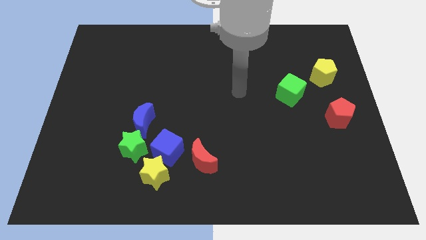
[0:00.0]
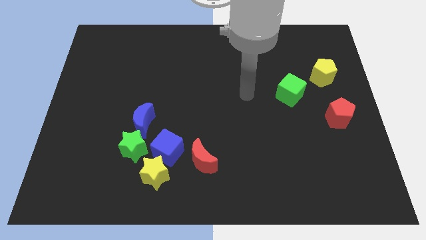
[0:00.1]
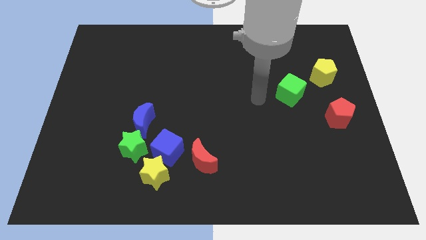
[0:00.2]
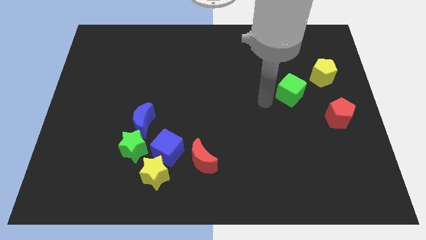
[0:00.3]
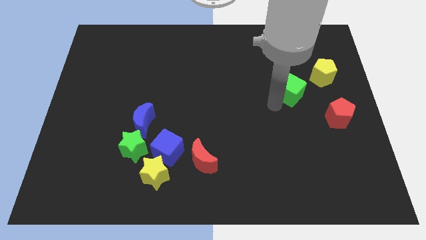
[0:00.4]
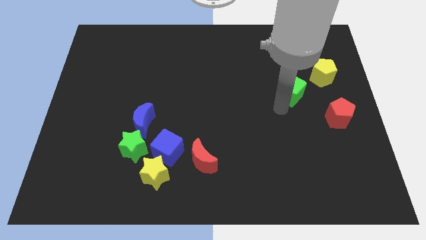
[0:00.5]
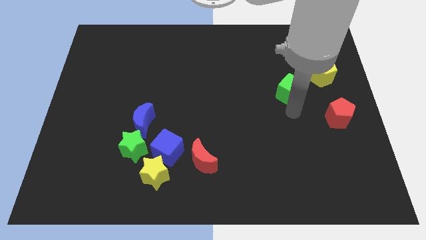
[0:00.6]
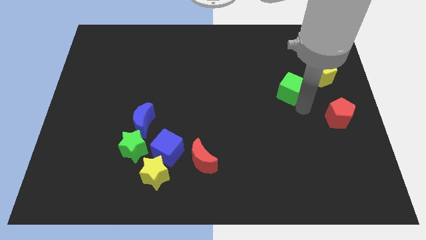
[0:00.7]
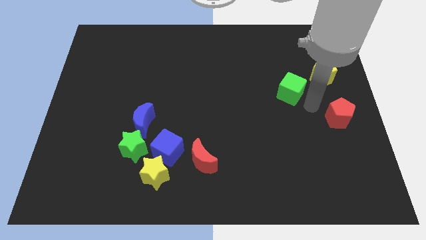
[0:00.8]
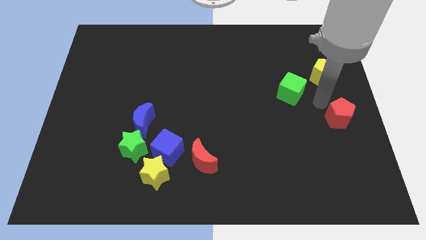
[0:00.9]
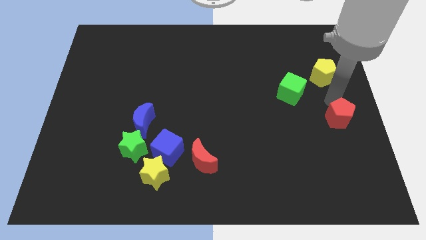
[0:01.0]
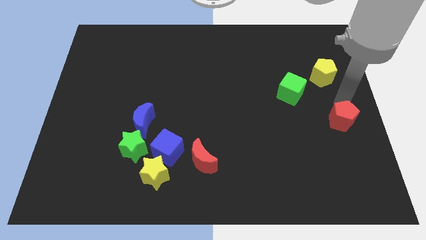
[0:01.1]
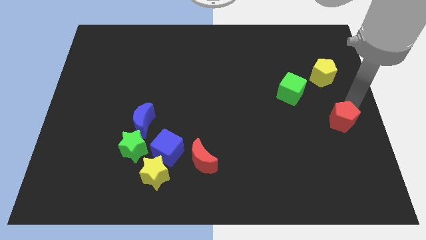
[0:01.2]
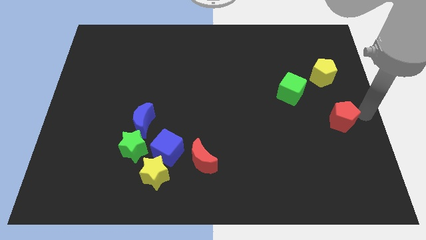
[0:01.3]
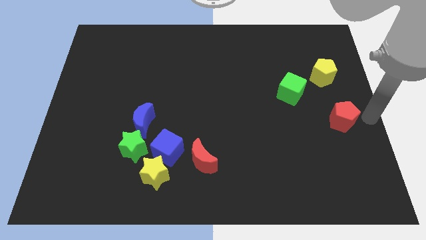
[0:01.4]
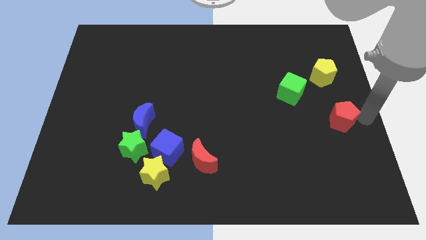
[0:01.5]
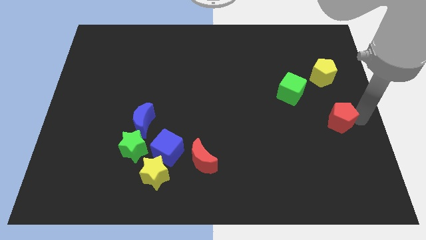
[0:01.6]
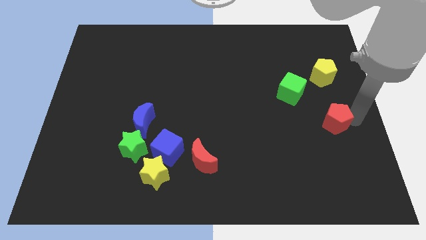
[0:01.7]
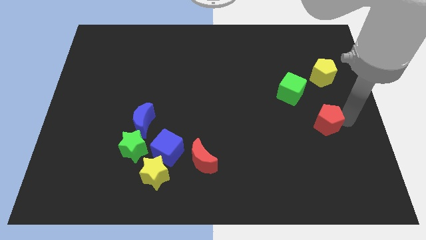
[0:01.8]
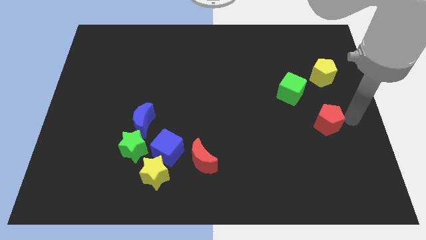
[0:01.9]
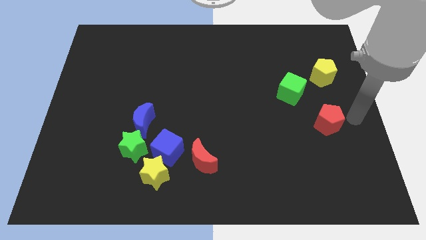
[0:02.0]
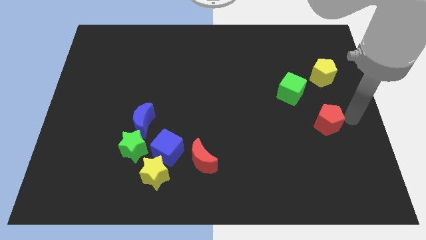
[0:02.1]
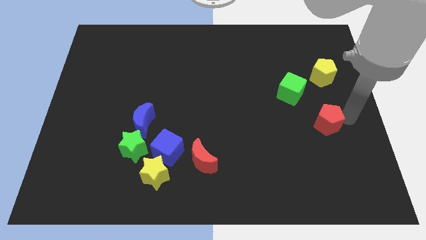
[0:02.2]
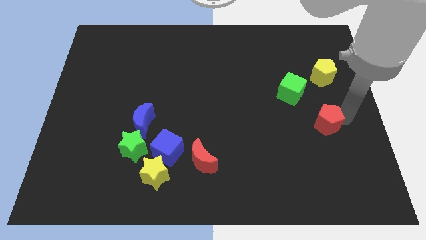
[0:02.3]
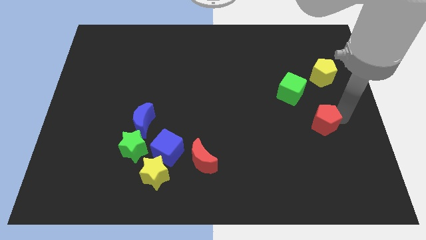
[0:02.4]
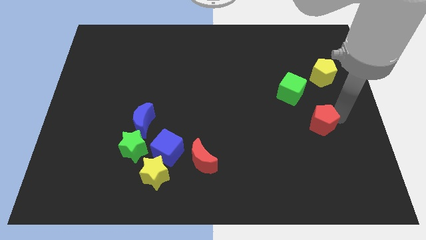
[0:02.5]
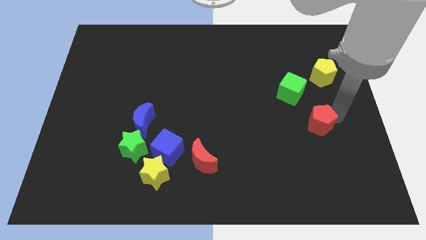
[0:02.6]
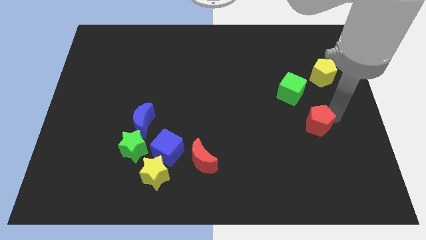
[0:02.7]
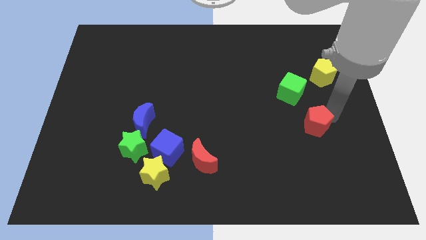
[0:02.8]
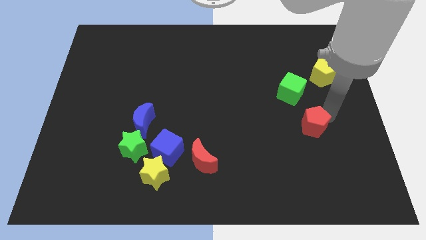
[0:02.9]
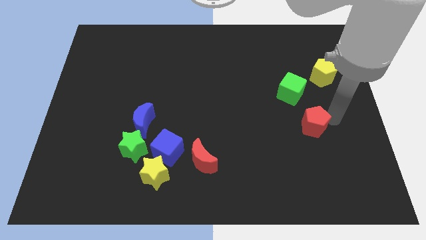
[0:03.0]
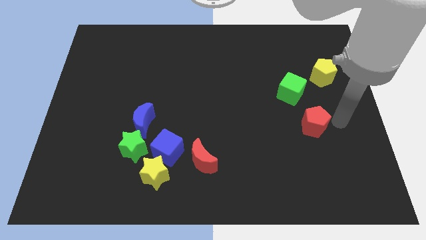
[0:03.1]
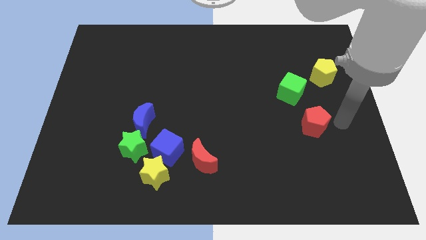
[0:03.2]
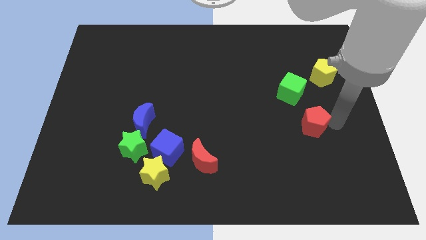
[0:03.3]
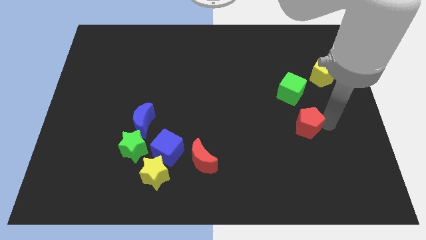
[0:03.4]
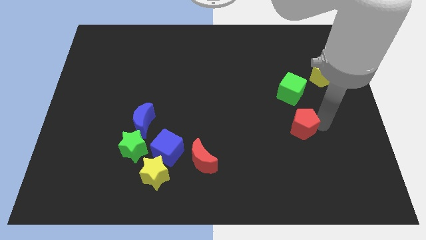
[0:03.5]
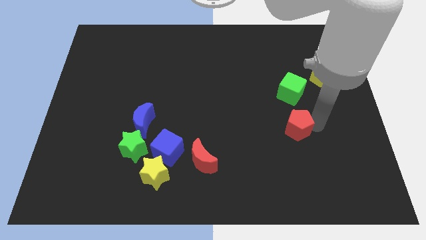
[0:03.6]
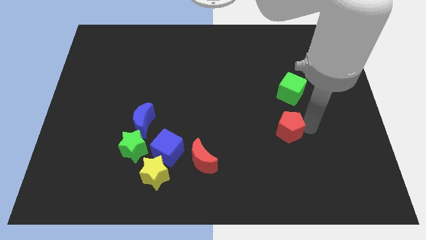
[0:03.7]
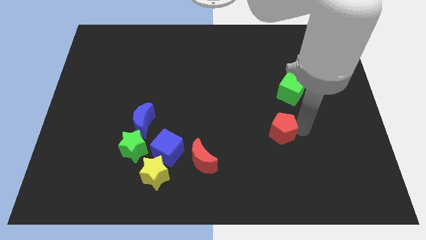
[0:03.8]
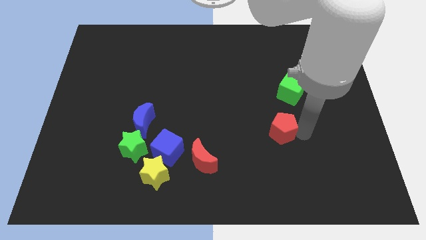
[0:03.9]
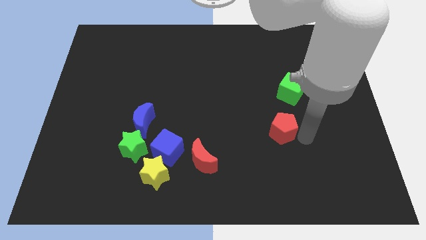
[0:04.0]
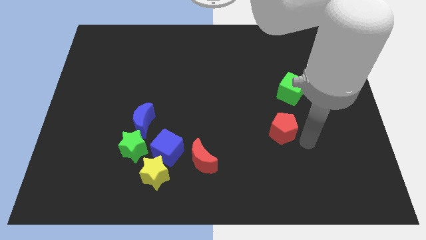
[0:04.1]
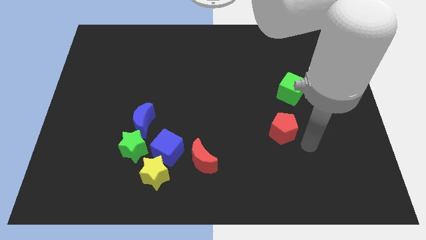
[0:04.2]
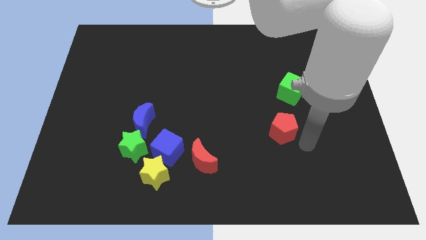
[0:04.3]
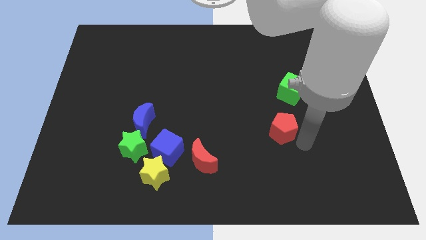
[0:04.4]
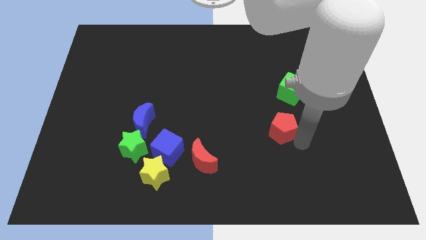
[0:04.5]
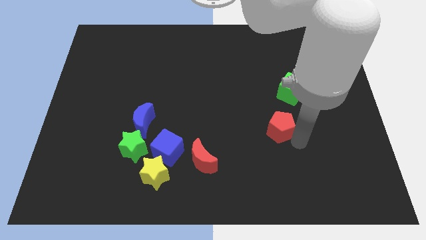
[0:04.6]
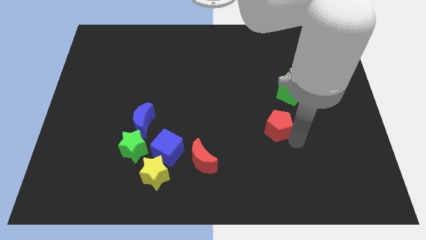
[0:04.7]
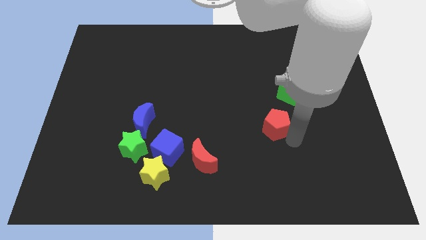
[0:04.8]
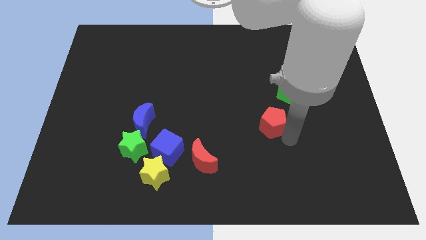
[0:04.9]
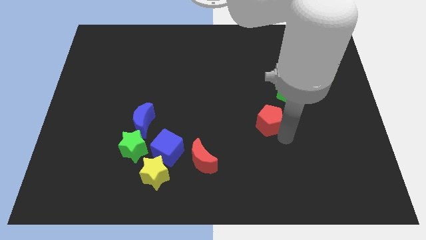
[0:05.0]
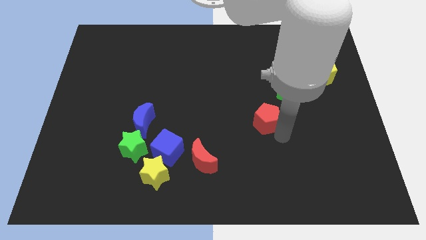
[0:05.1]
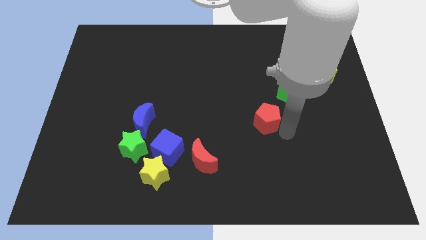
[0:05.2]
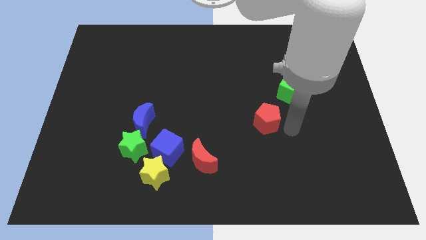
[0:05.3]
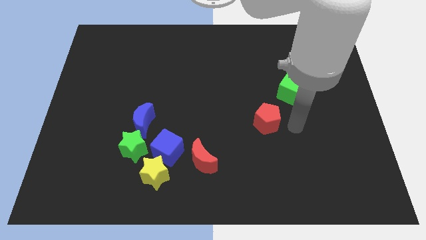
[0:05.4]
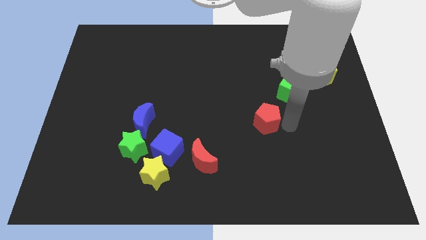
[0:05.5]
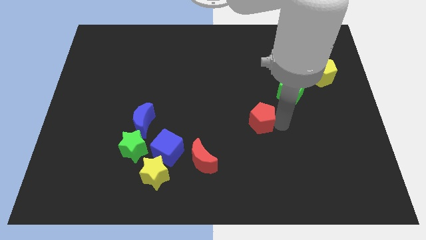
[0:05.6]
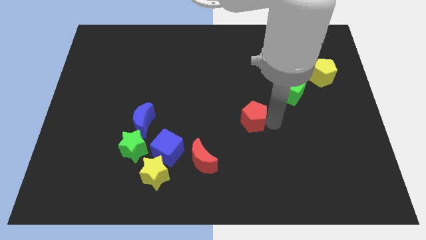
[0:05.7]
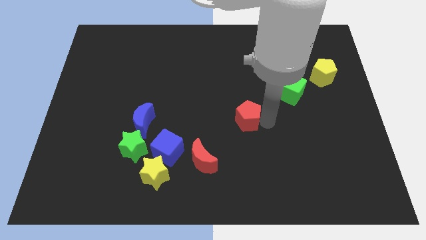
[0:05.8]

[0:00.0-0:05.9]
slide the red pentagon to the left

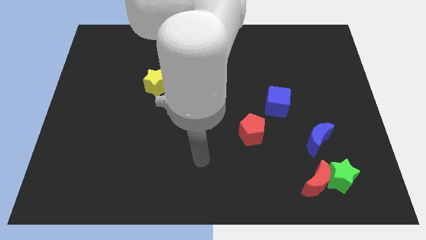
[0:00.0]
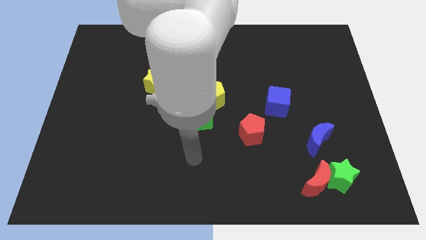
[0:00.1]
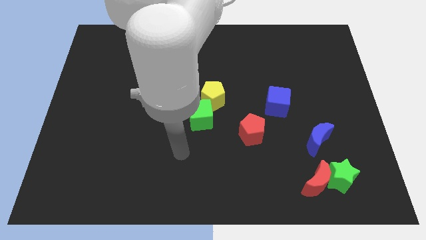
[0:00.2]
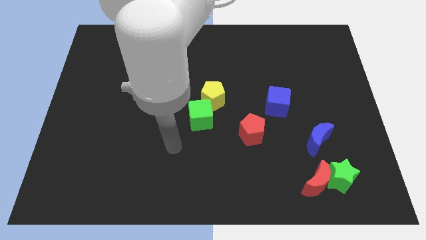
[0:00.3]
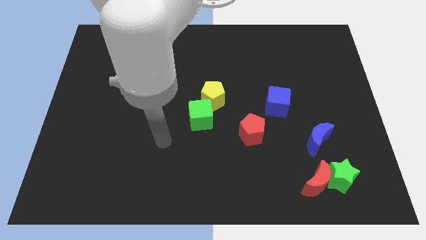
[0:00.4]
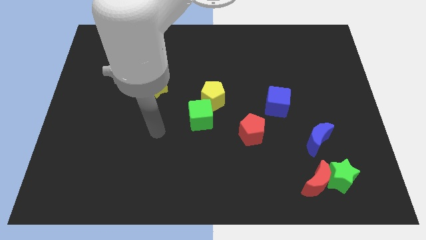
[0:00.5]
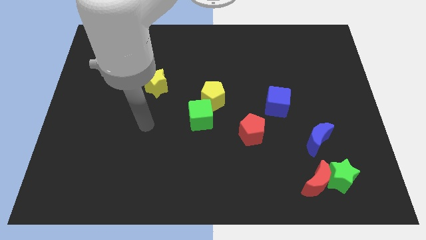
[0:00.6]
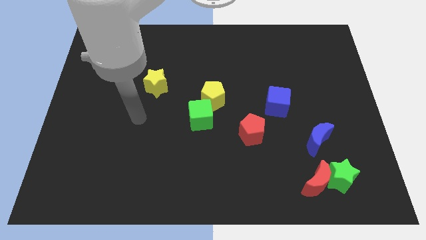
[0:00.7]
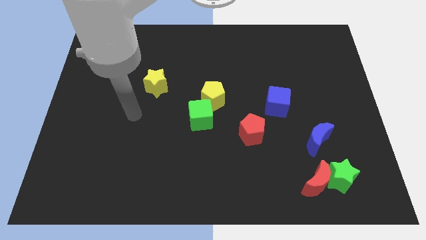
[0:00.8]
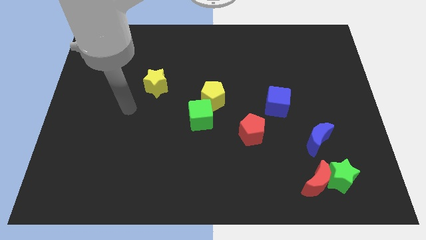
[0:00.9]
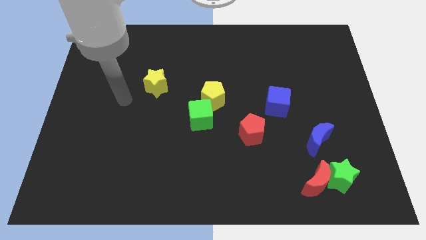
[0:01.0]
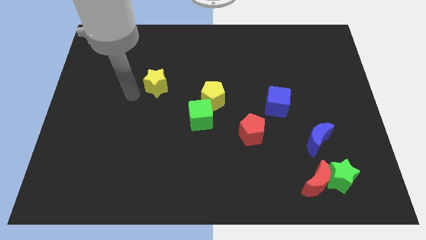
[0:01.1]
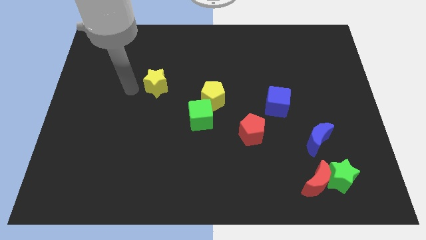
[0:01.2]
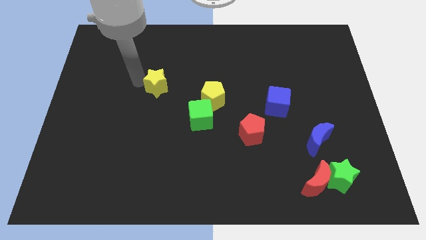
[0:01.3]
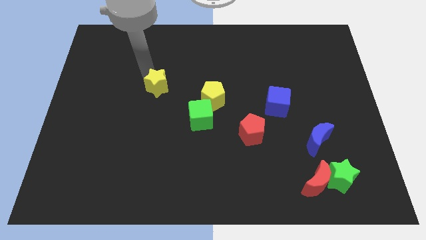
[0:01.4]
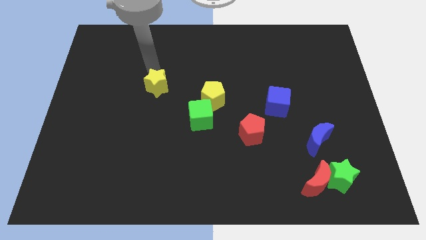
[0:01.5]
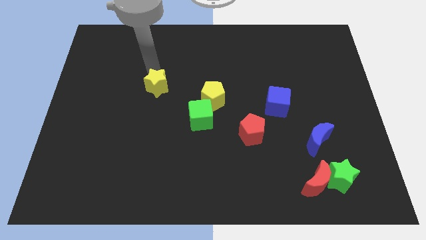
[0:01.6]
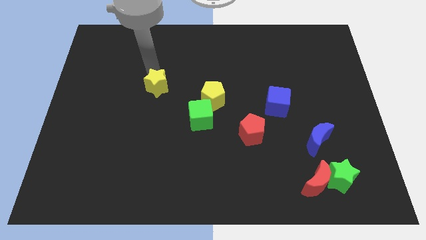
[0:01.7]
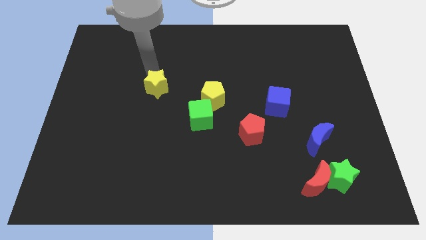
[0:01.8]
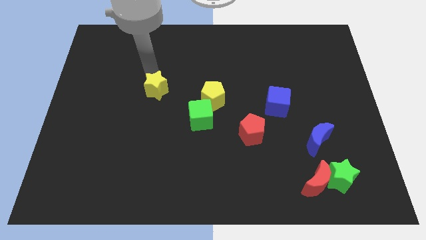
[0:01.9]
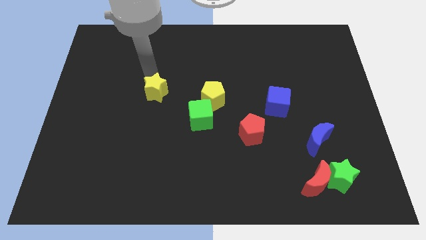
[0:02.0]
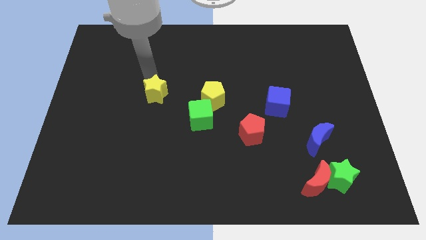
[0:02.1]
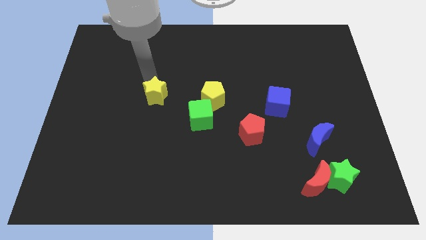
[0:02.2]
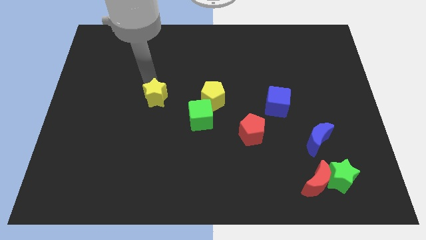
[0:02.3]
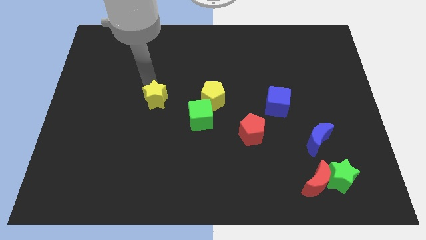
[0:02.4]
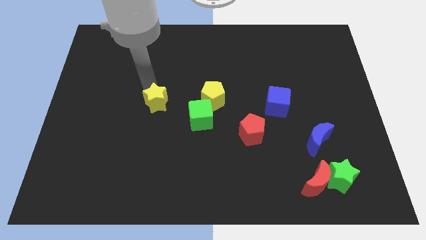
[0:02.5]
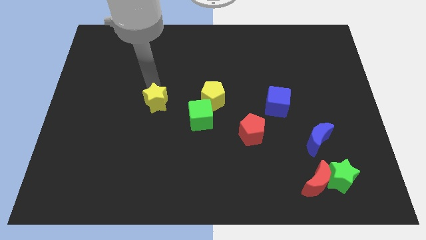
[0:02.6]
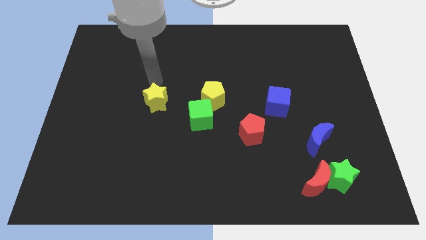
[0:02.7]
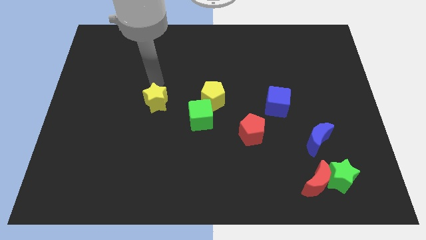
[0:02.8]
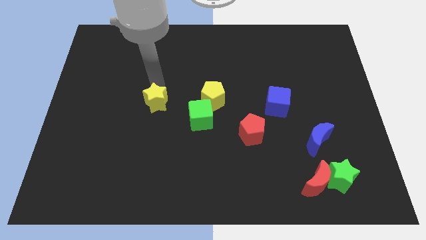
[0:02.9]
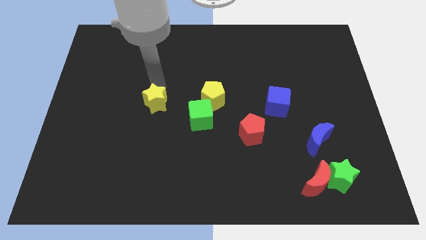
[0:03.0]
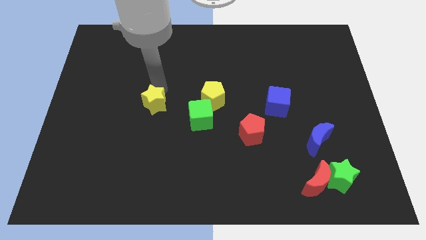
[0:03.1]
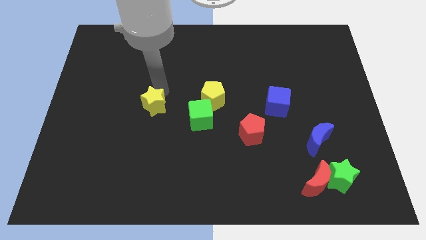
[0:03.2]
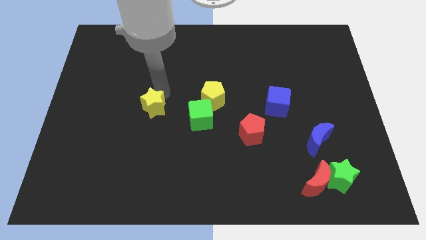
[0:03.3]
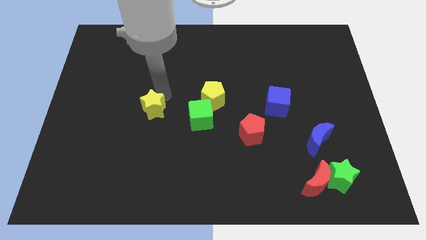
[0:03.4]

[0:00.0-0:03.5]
slightly slide the yellow star downwards
